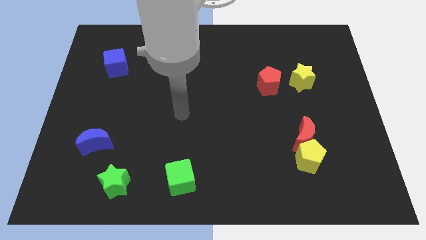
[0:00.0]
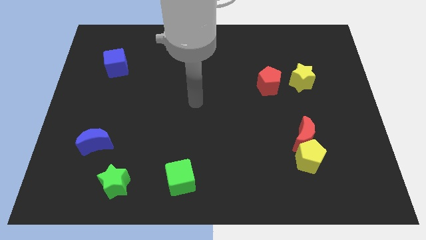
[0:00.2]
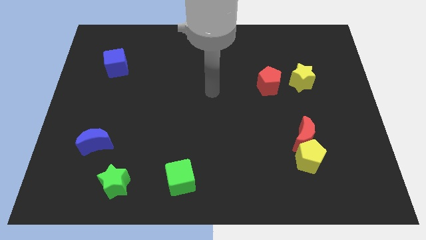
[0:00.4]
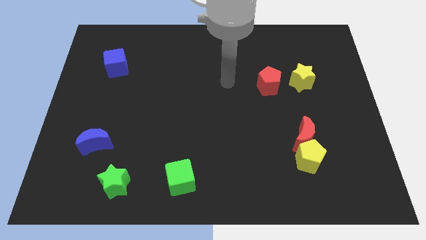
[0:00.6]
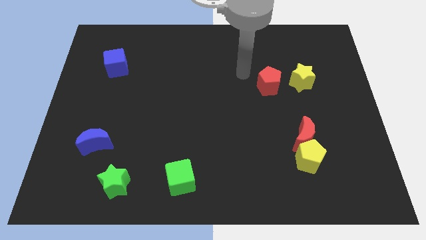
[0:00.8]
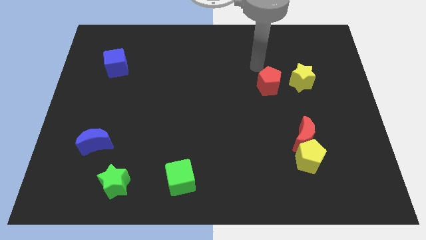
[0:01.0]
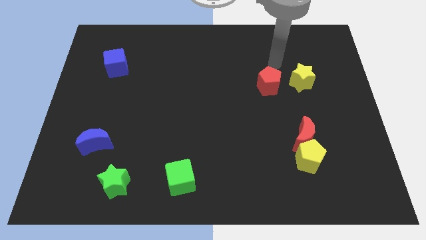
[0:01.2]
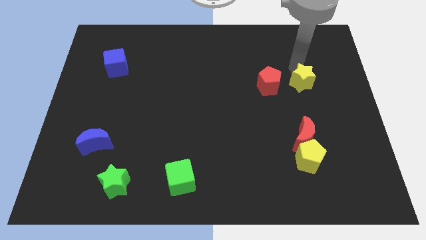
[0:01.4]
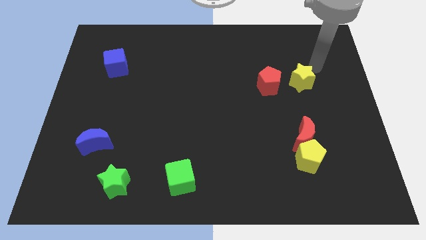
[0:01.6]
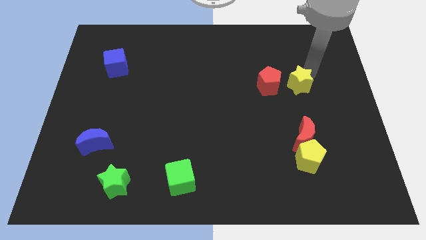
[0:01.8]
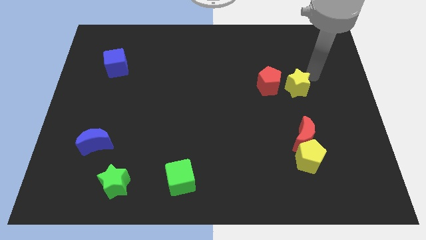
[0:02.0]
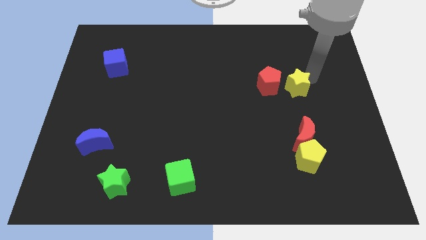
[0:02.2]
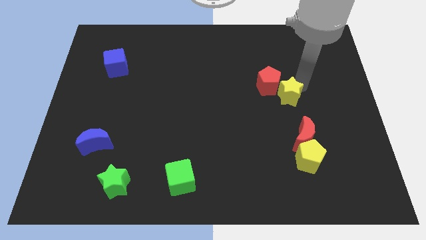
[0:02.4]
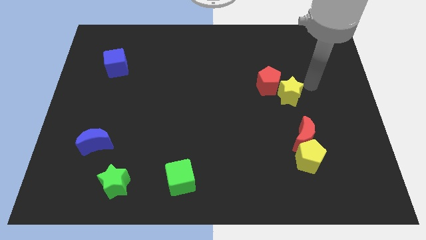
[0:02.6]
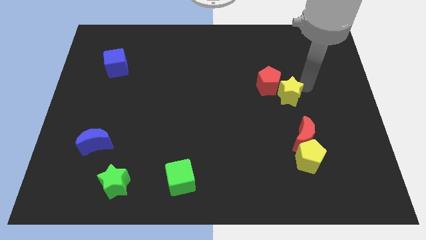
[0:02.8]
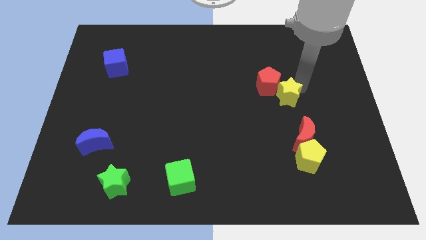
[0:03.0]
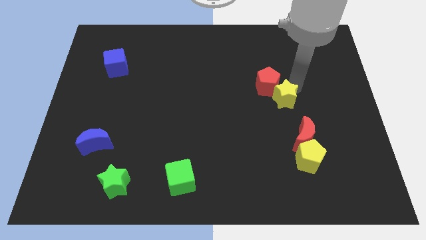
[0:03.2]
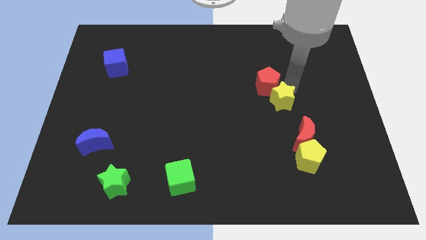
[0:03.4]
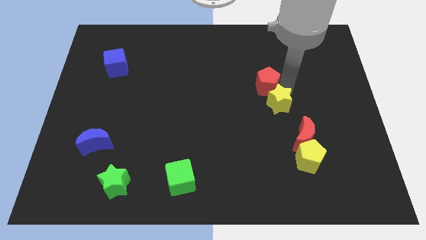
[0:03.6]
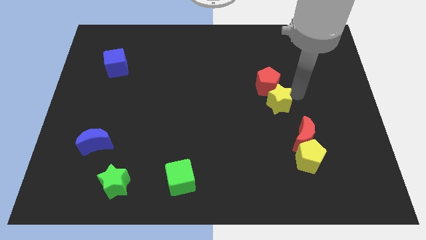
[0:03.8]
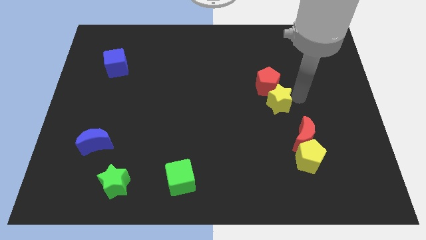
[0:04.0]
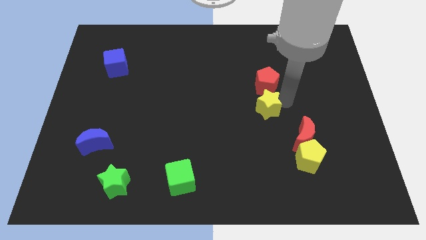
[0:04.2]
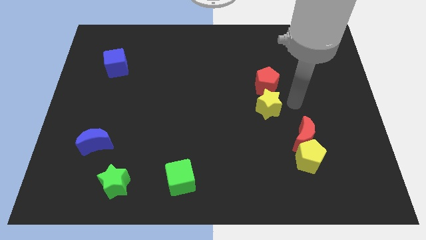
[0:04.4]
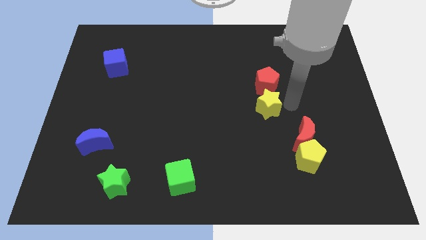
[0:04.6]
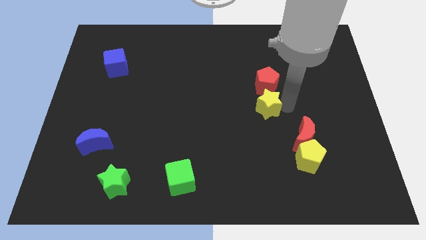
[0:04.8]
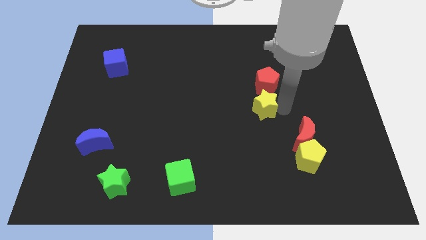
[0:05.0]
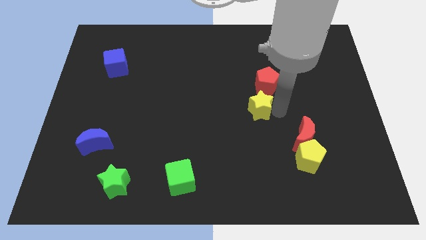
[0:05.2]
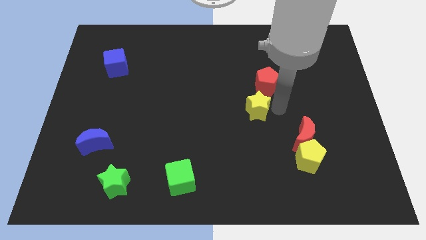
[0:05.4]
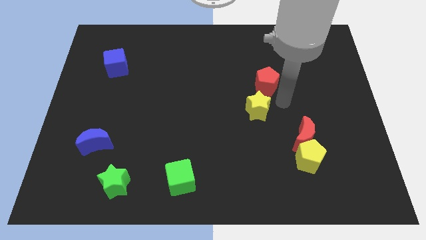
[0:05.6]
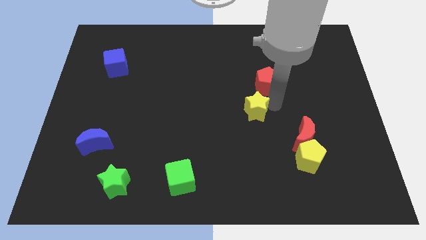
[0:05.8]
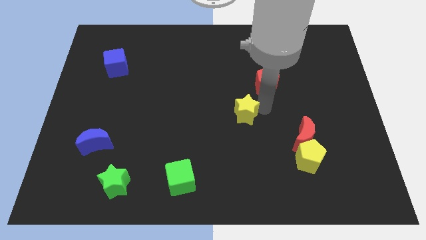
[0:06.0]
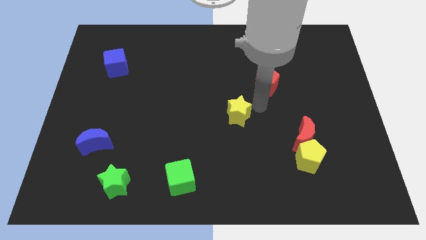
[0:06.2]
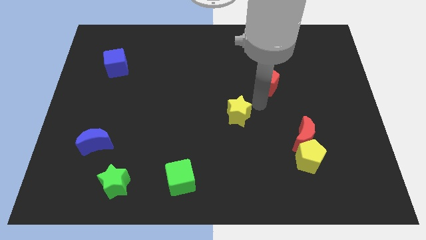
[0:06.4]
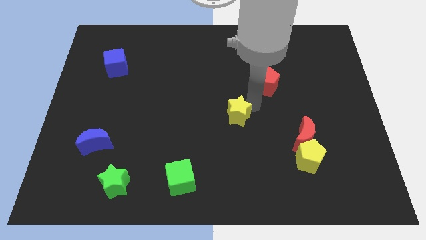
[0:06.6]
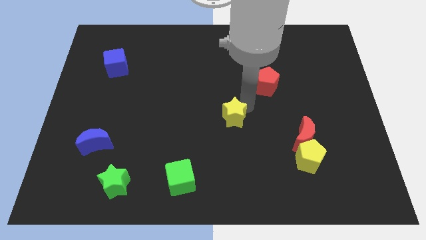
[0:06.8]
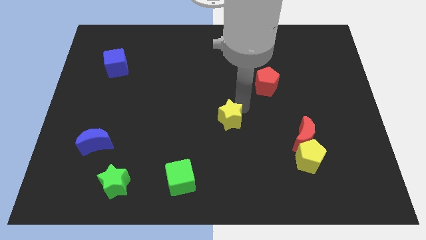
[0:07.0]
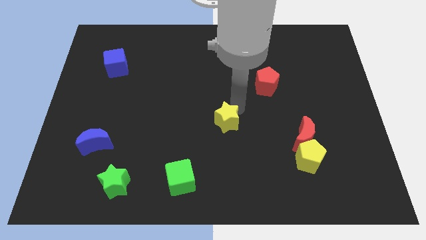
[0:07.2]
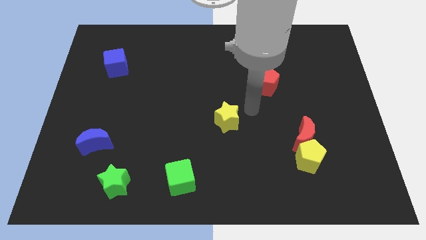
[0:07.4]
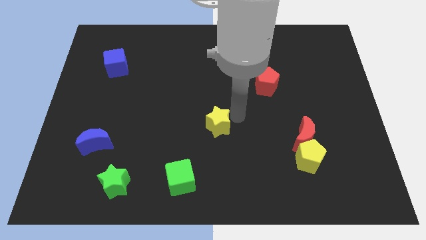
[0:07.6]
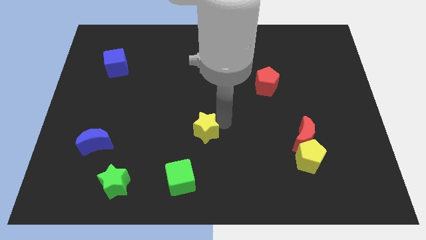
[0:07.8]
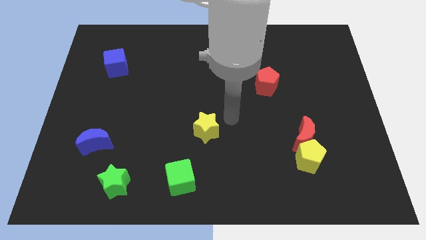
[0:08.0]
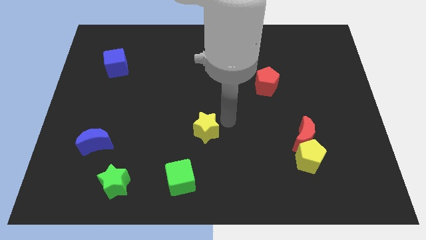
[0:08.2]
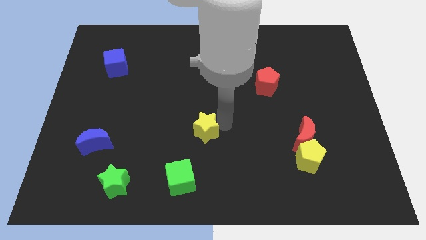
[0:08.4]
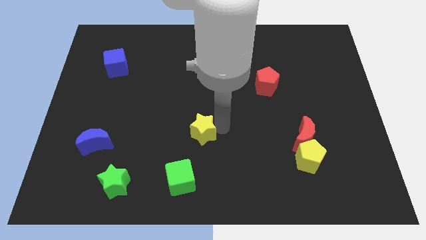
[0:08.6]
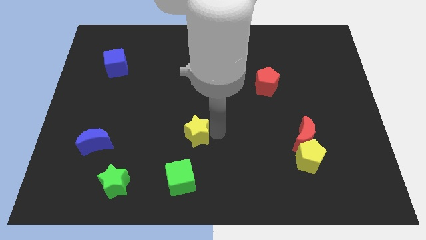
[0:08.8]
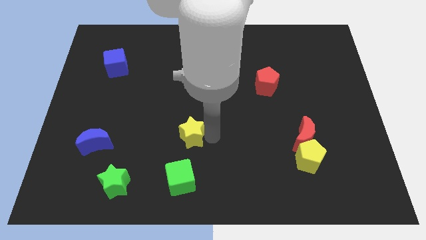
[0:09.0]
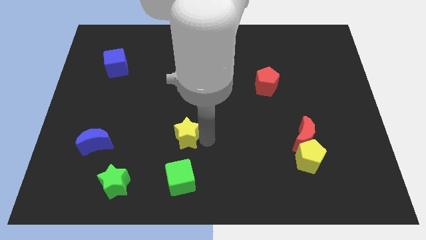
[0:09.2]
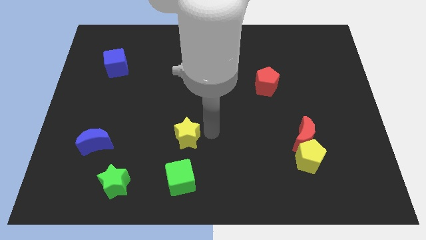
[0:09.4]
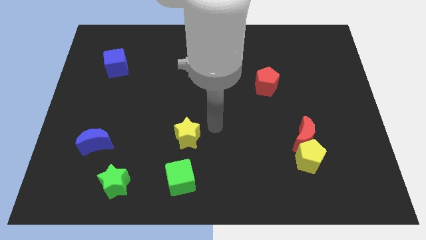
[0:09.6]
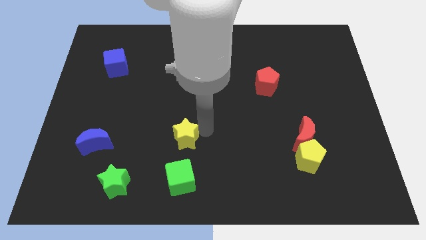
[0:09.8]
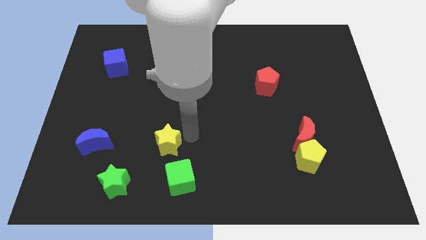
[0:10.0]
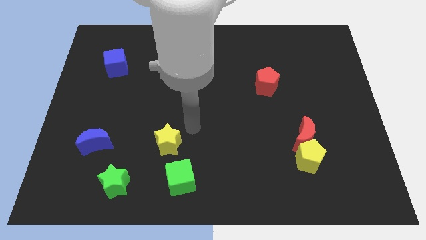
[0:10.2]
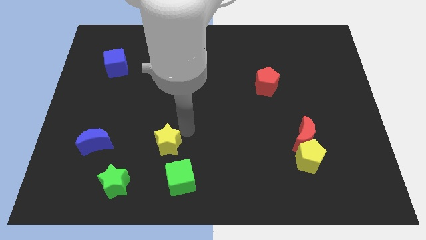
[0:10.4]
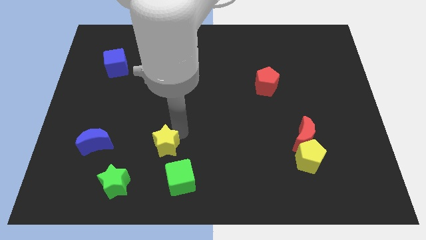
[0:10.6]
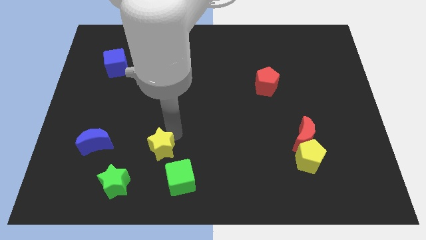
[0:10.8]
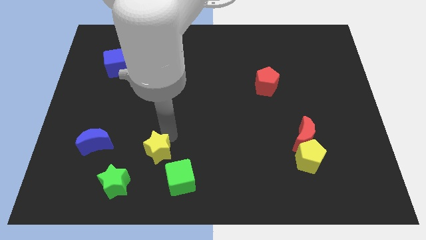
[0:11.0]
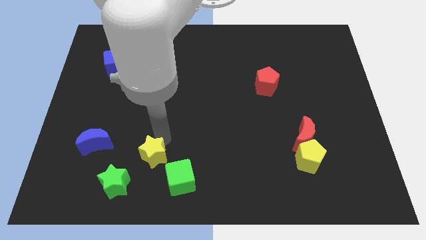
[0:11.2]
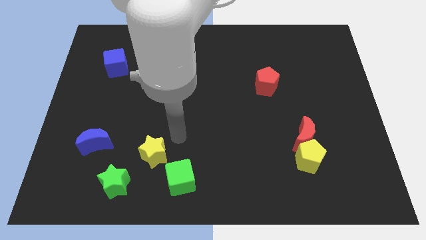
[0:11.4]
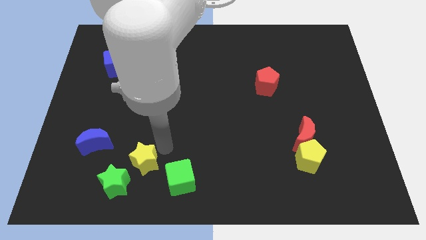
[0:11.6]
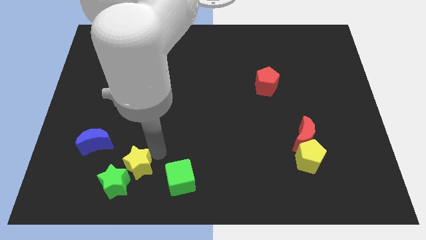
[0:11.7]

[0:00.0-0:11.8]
push the yellow star towards the green star

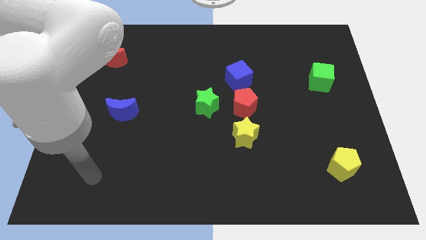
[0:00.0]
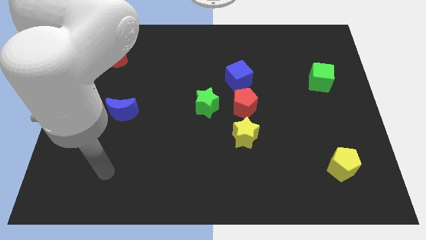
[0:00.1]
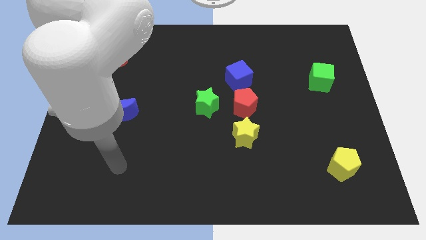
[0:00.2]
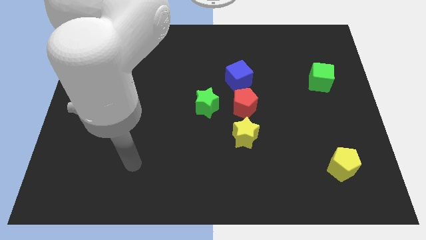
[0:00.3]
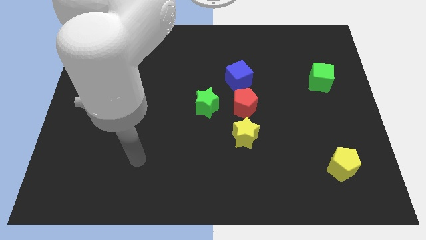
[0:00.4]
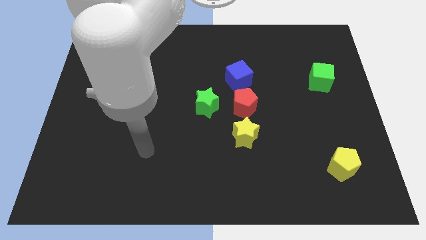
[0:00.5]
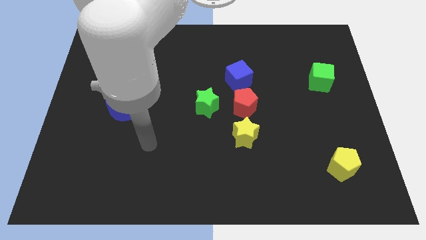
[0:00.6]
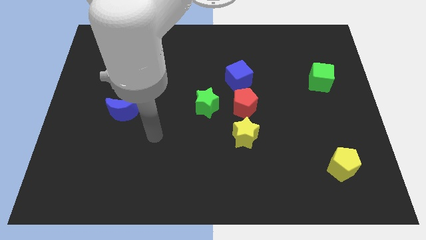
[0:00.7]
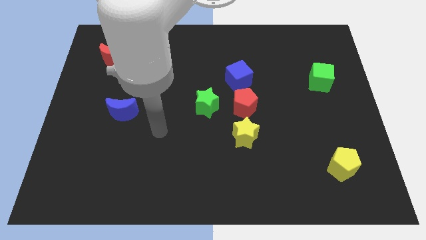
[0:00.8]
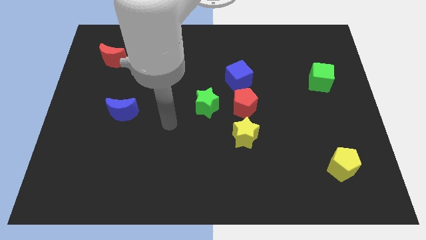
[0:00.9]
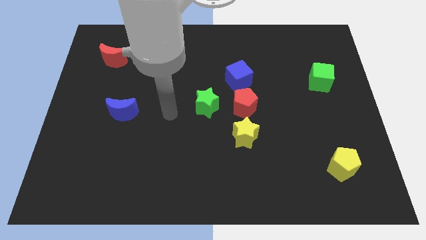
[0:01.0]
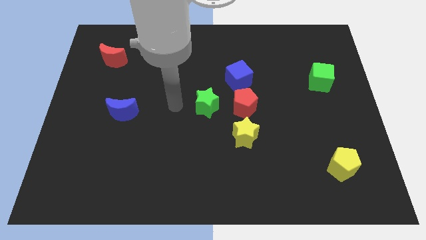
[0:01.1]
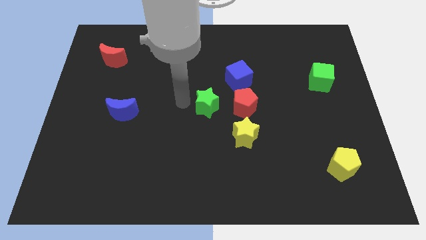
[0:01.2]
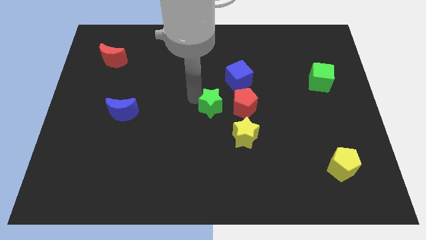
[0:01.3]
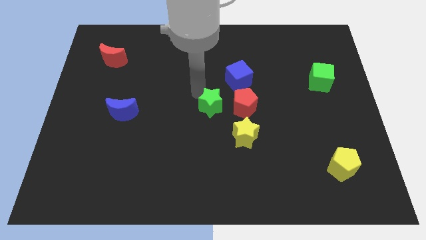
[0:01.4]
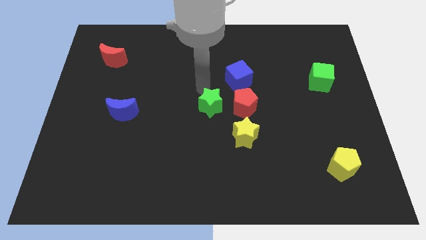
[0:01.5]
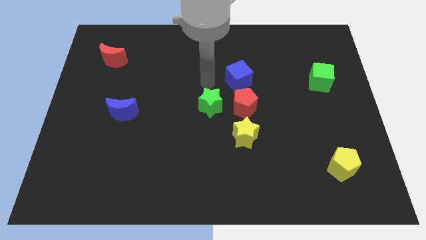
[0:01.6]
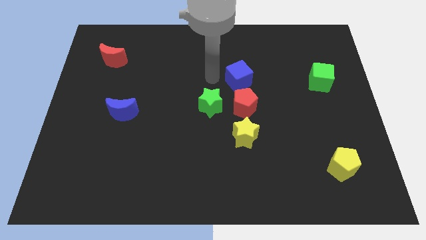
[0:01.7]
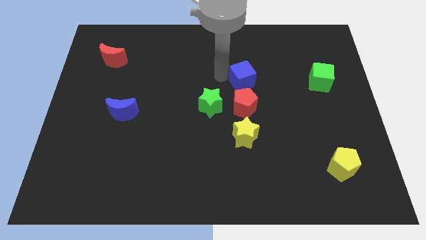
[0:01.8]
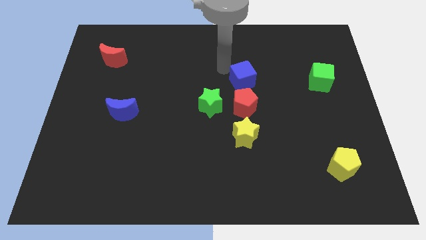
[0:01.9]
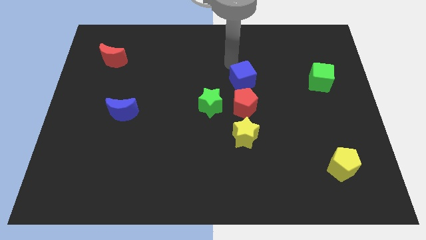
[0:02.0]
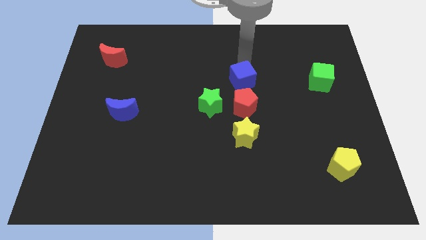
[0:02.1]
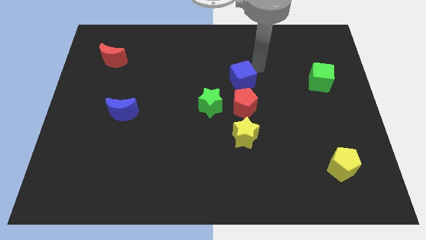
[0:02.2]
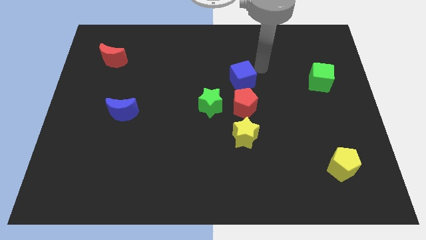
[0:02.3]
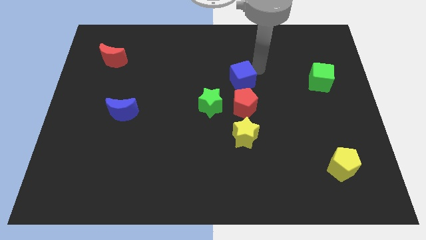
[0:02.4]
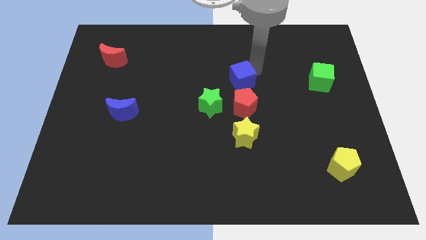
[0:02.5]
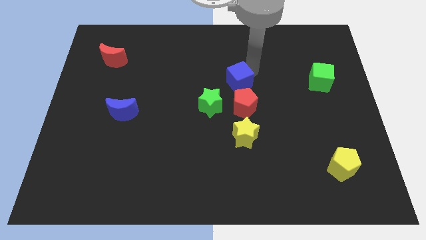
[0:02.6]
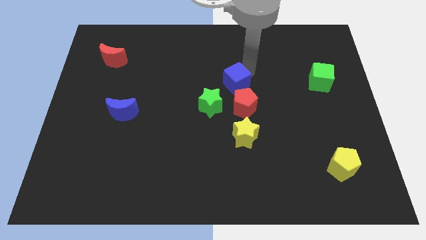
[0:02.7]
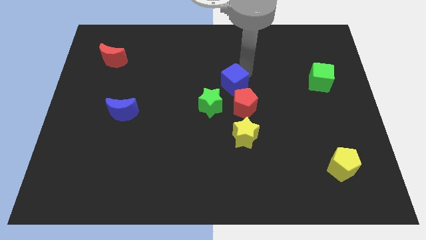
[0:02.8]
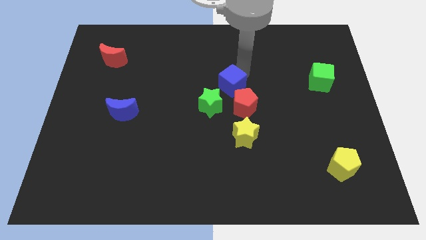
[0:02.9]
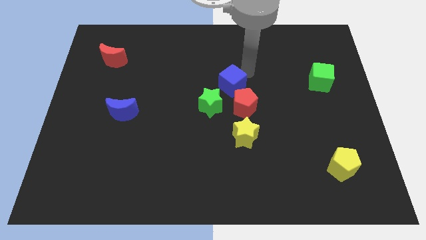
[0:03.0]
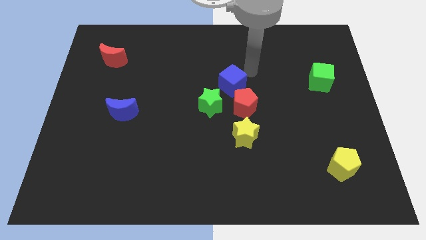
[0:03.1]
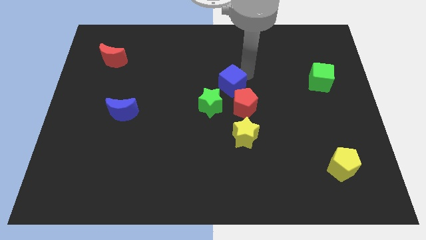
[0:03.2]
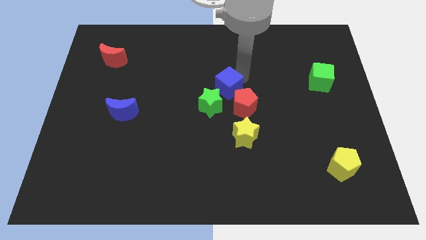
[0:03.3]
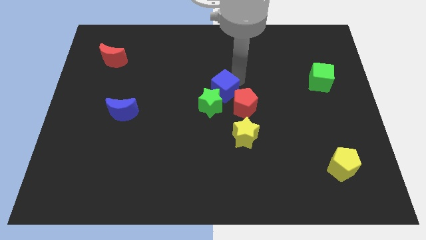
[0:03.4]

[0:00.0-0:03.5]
slide the blue cube next to the green star
